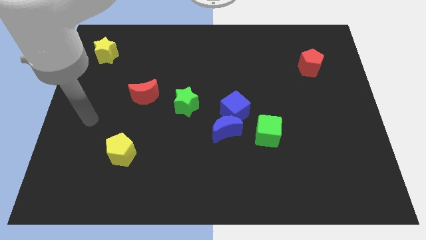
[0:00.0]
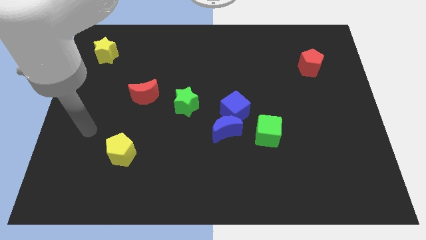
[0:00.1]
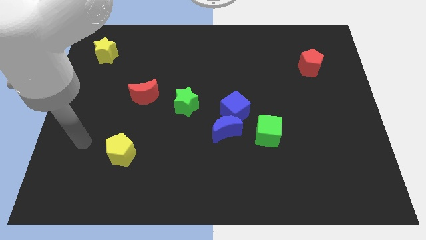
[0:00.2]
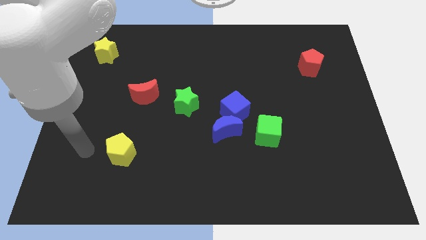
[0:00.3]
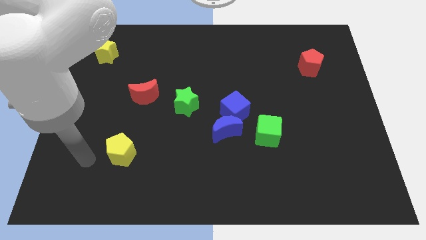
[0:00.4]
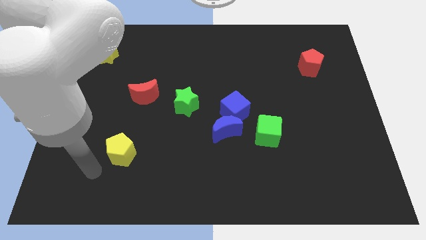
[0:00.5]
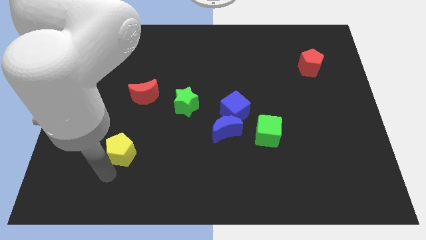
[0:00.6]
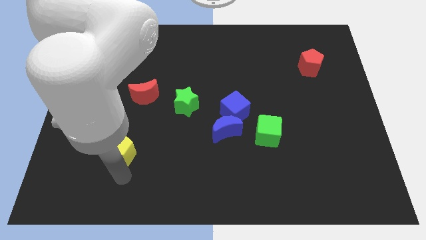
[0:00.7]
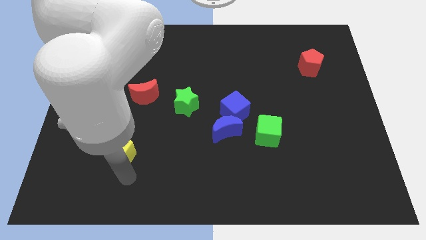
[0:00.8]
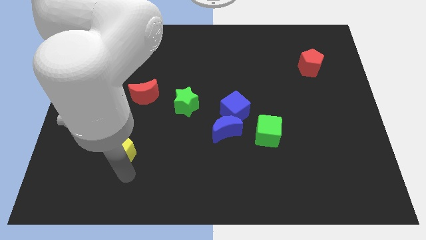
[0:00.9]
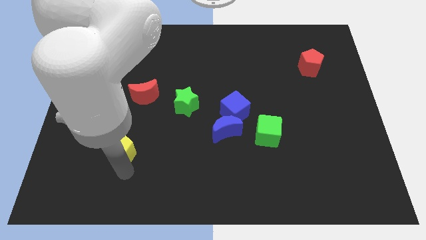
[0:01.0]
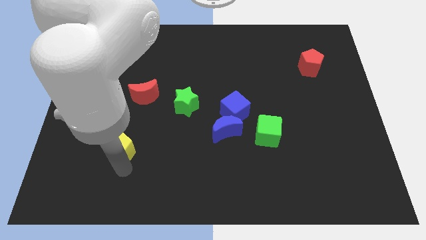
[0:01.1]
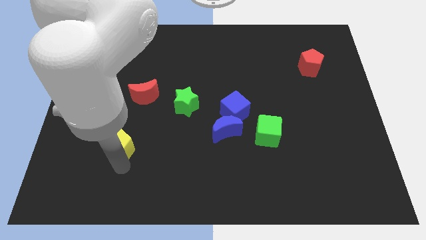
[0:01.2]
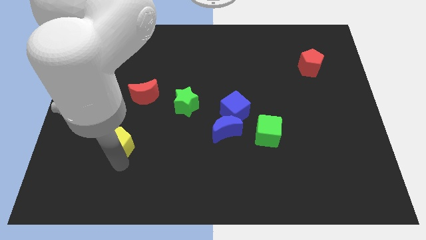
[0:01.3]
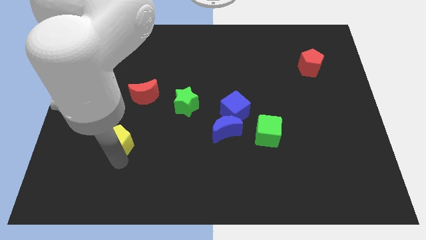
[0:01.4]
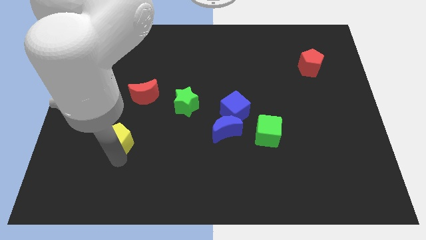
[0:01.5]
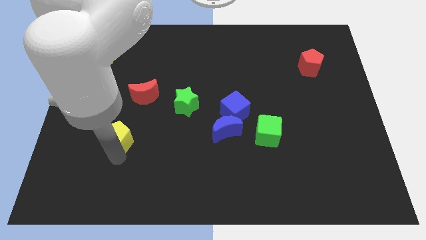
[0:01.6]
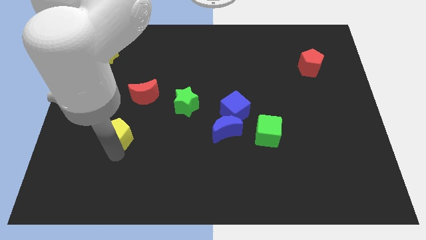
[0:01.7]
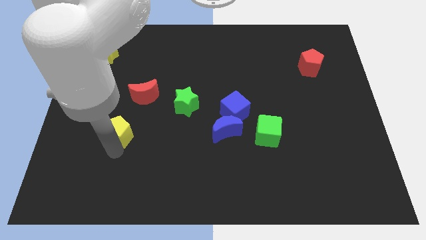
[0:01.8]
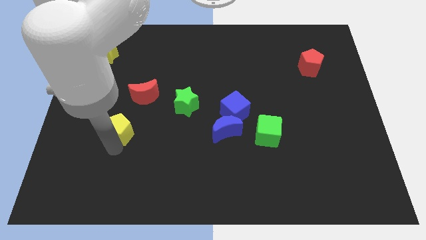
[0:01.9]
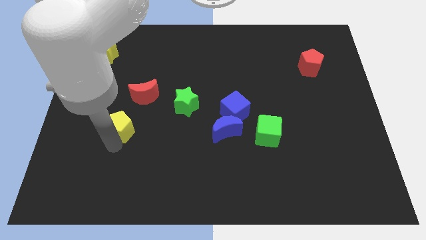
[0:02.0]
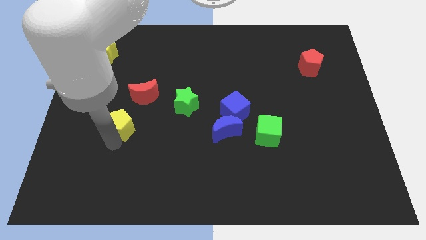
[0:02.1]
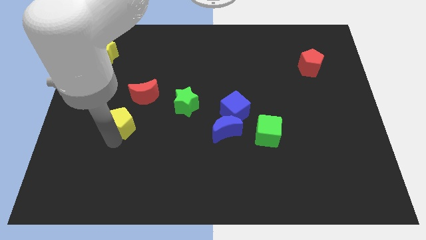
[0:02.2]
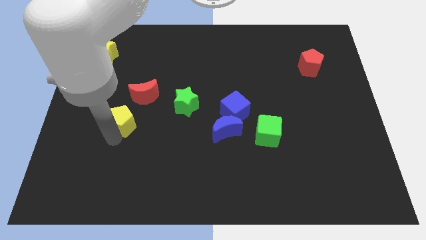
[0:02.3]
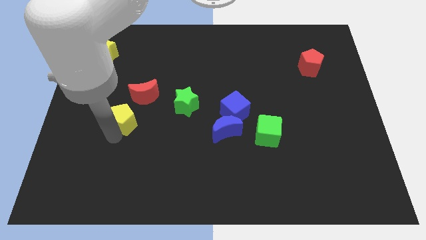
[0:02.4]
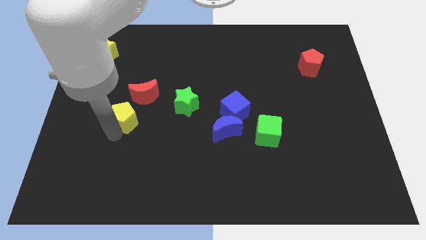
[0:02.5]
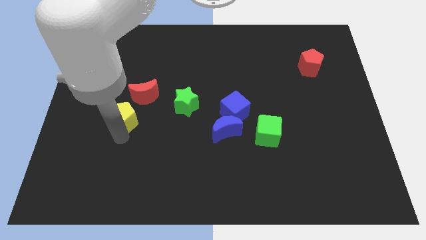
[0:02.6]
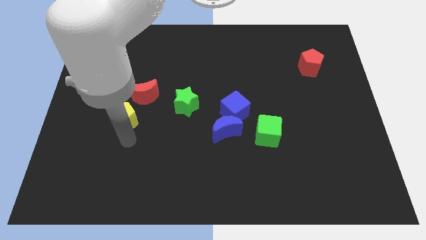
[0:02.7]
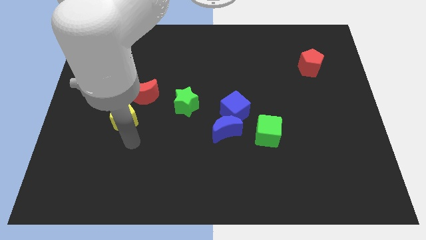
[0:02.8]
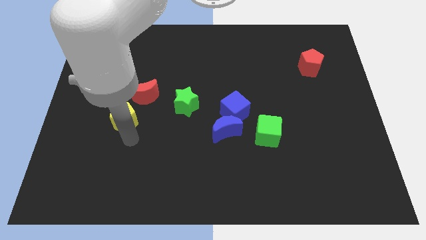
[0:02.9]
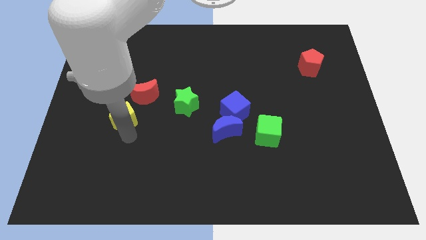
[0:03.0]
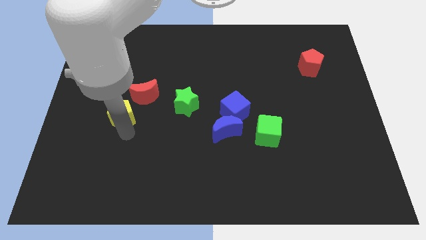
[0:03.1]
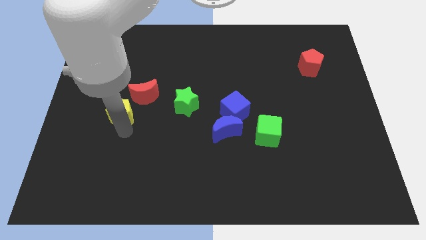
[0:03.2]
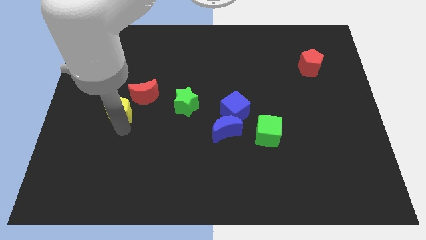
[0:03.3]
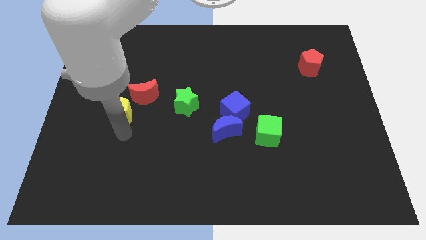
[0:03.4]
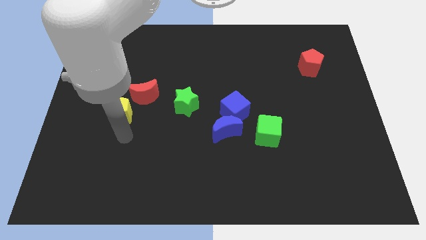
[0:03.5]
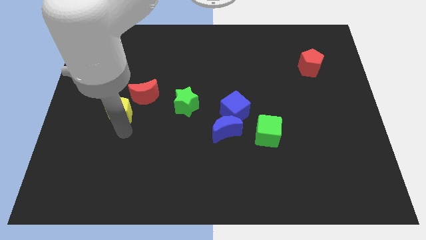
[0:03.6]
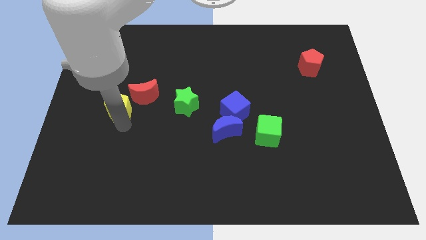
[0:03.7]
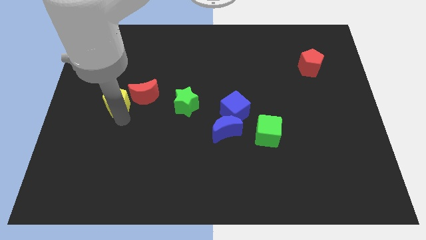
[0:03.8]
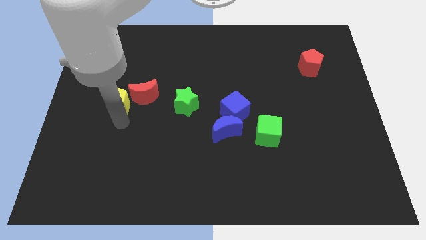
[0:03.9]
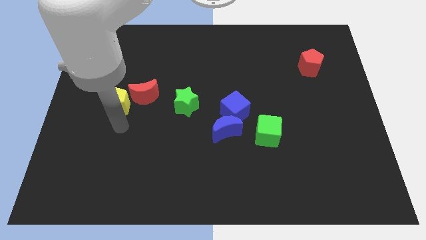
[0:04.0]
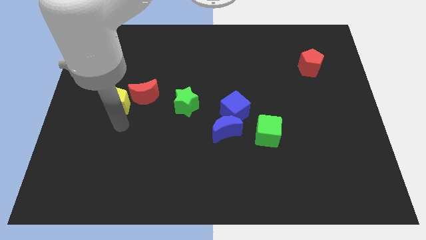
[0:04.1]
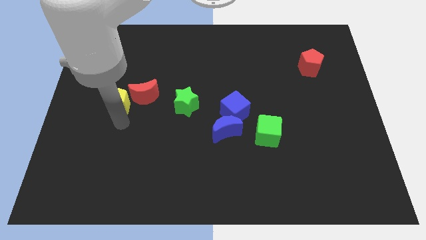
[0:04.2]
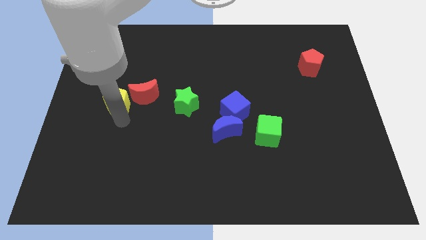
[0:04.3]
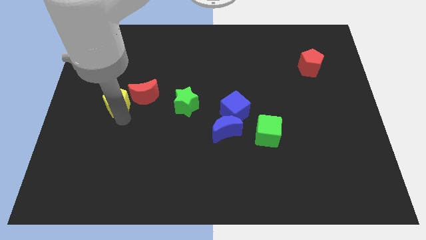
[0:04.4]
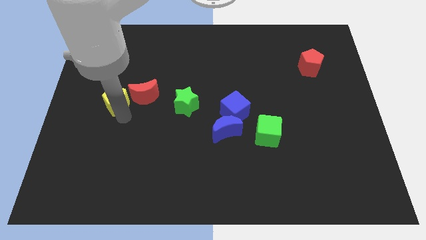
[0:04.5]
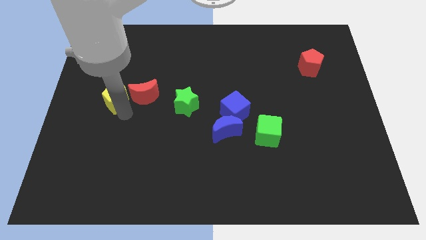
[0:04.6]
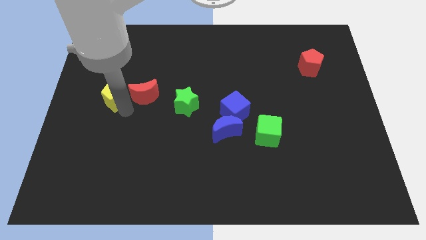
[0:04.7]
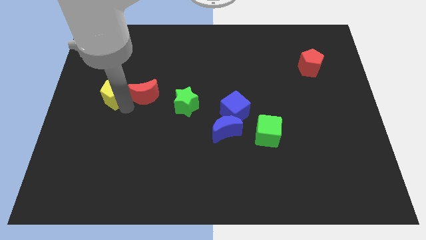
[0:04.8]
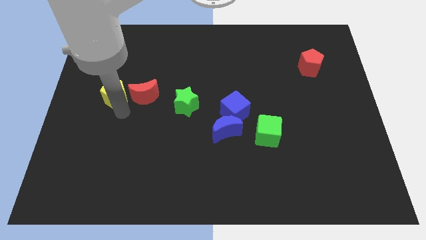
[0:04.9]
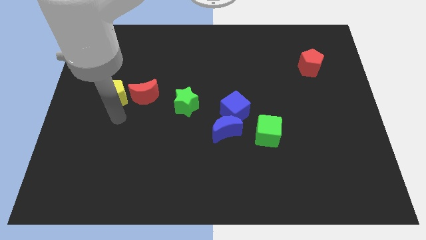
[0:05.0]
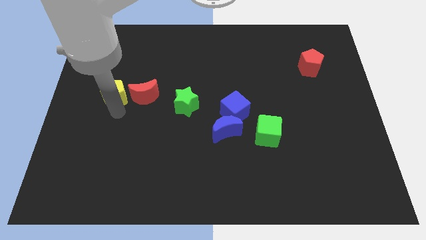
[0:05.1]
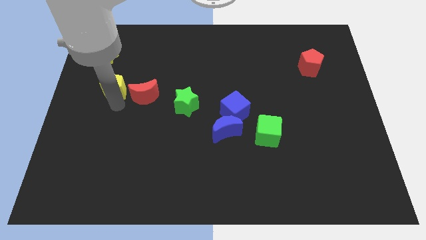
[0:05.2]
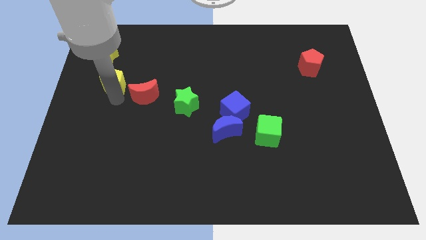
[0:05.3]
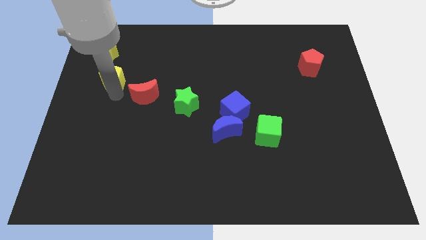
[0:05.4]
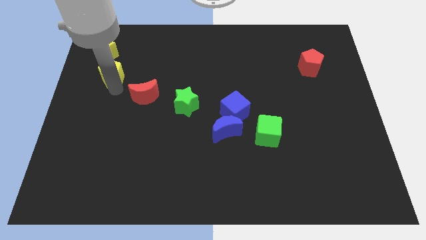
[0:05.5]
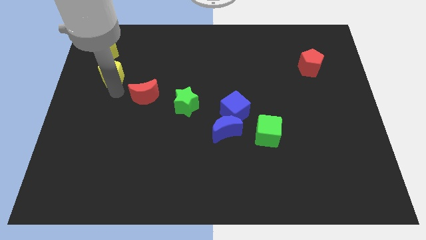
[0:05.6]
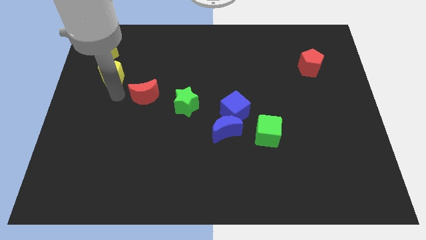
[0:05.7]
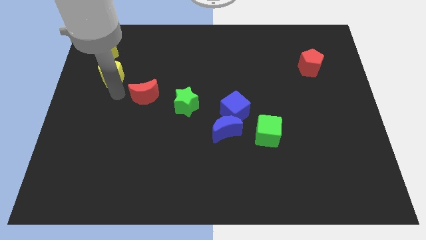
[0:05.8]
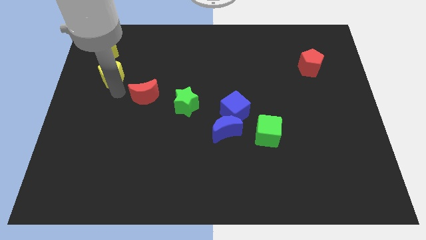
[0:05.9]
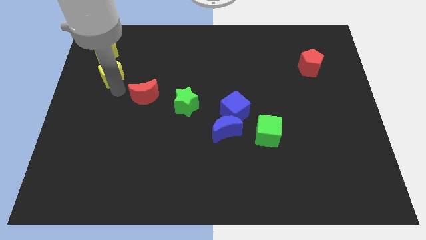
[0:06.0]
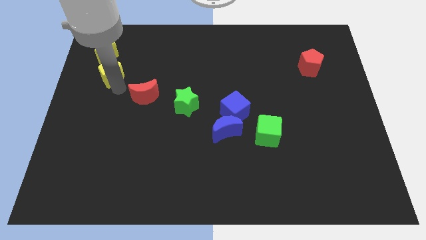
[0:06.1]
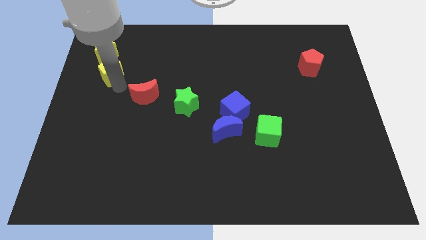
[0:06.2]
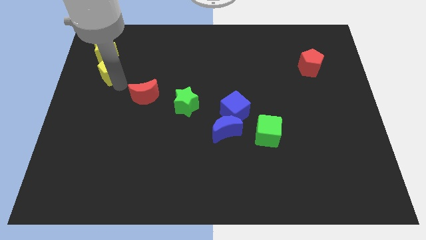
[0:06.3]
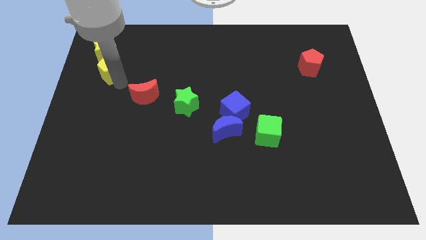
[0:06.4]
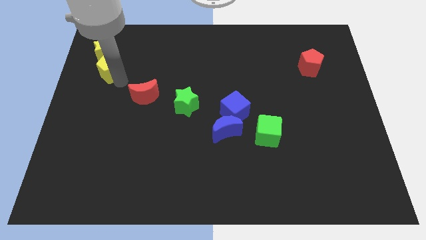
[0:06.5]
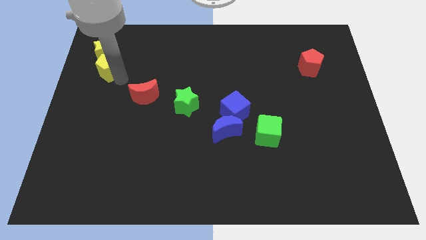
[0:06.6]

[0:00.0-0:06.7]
put the yellow pentagon next to the yellow star
